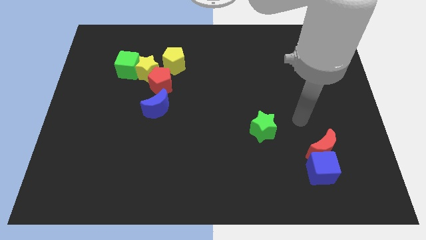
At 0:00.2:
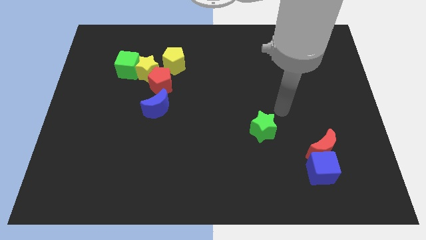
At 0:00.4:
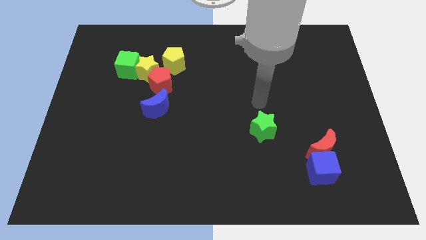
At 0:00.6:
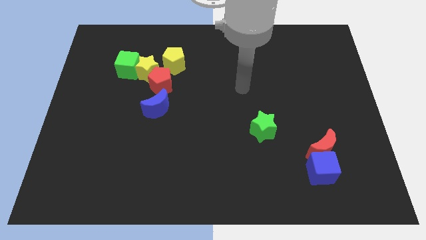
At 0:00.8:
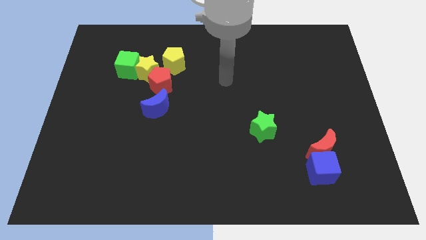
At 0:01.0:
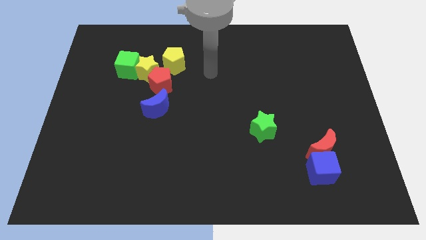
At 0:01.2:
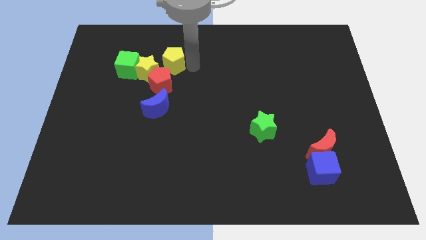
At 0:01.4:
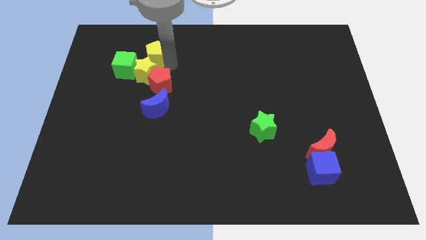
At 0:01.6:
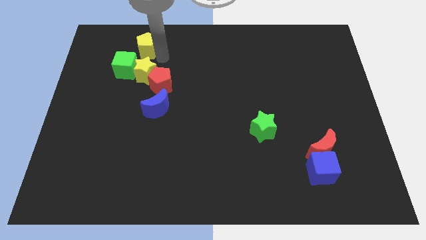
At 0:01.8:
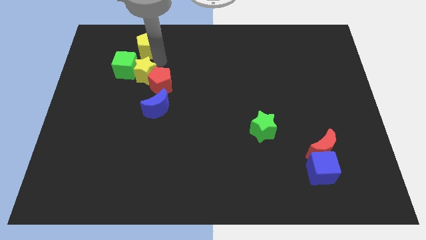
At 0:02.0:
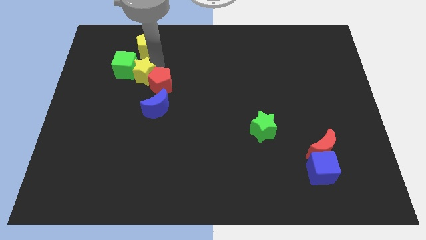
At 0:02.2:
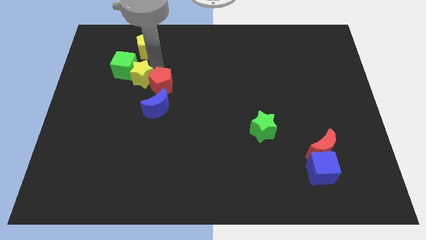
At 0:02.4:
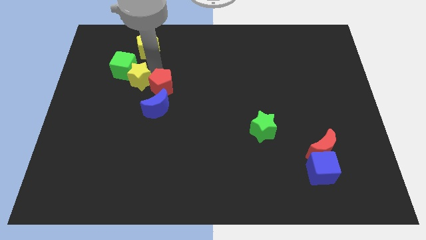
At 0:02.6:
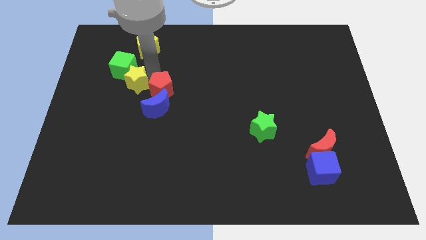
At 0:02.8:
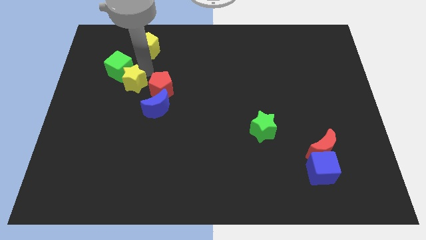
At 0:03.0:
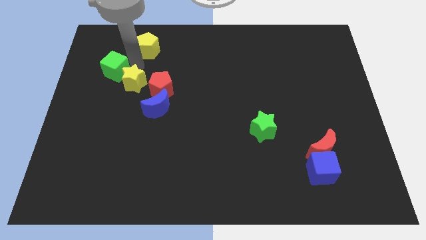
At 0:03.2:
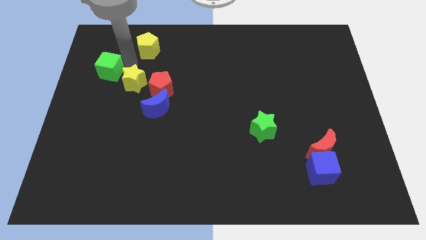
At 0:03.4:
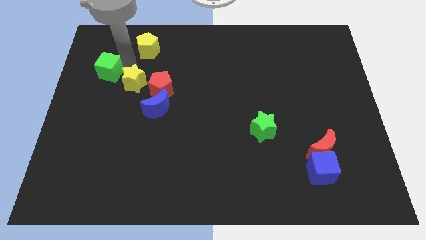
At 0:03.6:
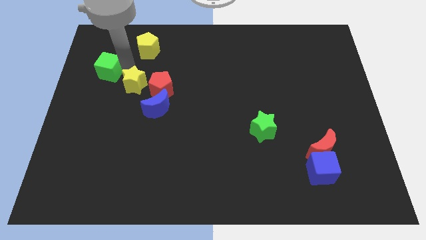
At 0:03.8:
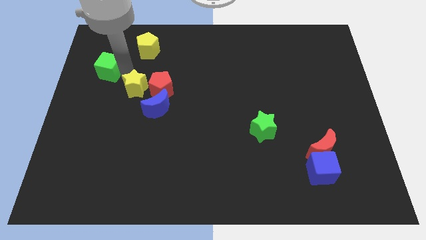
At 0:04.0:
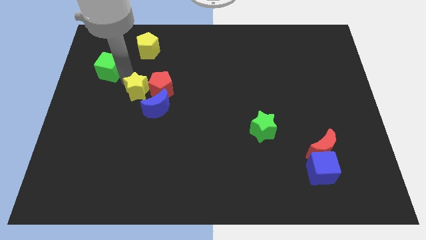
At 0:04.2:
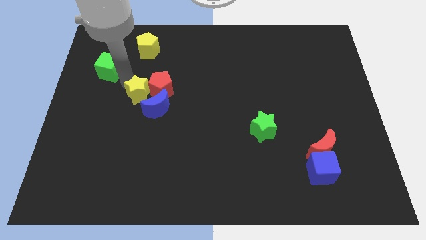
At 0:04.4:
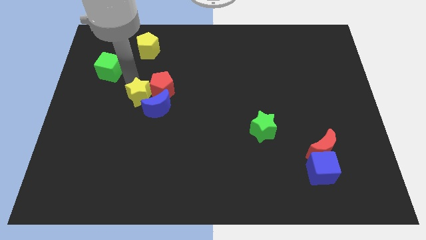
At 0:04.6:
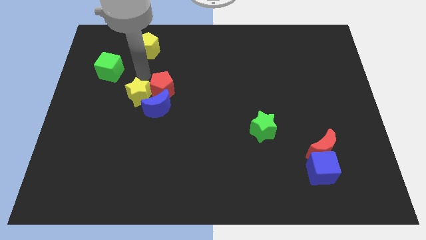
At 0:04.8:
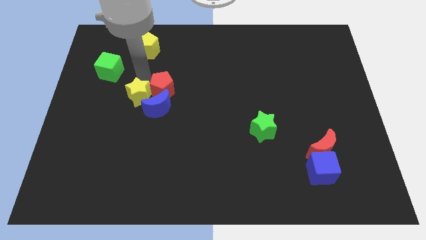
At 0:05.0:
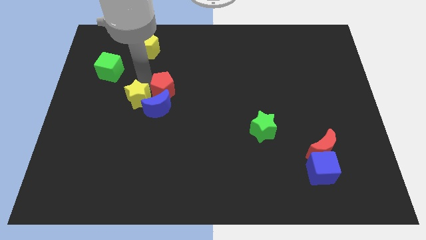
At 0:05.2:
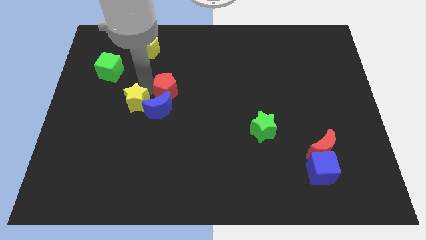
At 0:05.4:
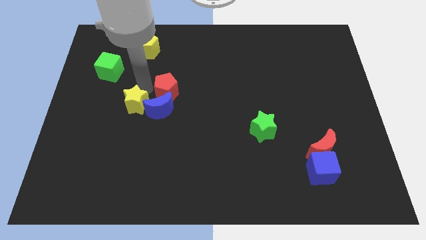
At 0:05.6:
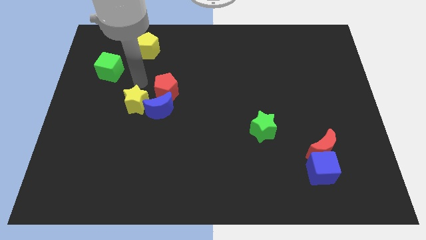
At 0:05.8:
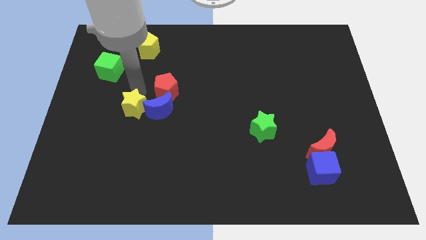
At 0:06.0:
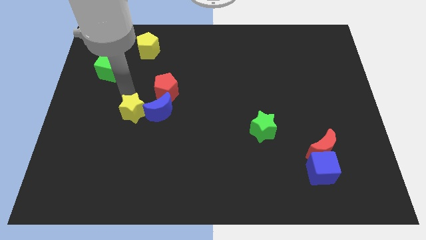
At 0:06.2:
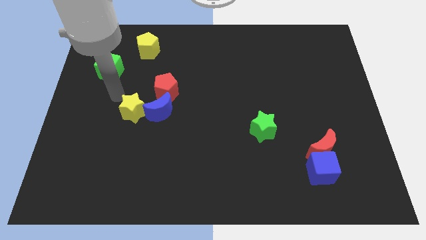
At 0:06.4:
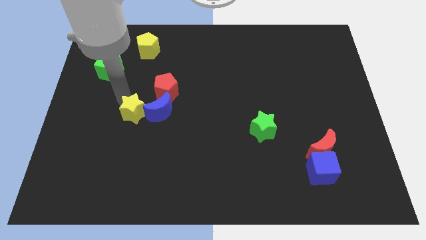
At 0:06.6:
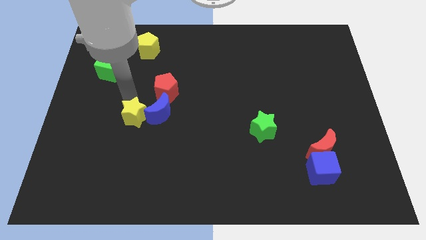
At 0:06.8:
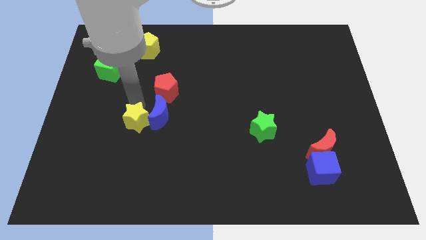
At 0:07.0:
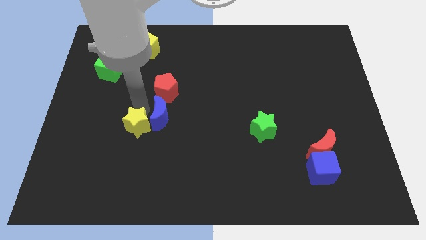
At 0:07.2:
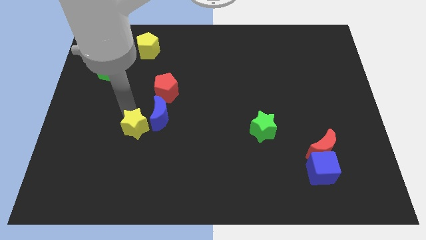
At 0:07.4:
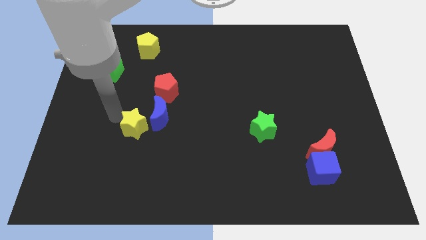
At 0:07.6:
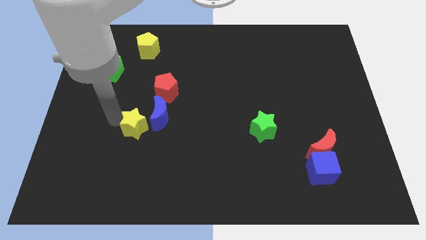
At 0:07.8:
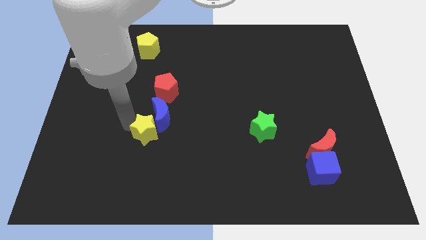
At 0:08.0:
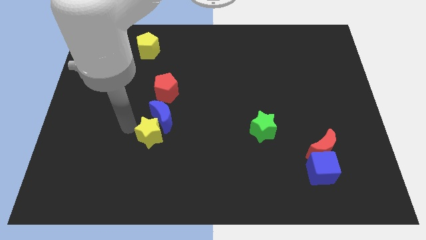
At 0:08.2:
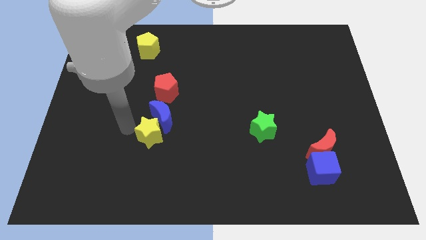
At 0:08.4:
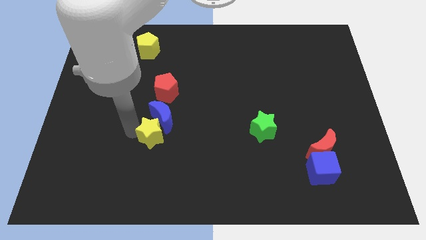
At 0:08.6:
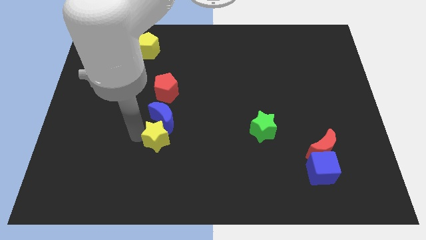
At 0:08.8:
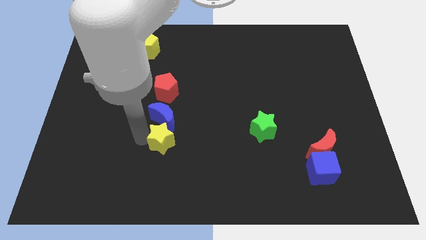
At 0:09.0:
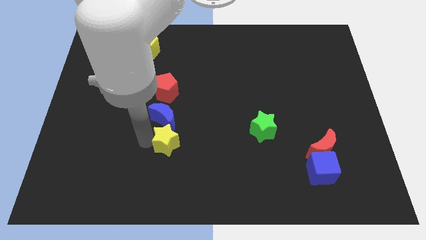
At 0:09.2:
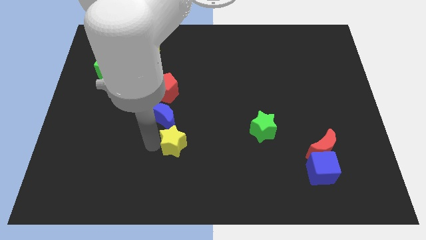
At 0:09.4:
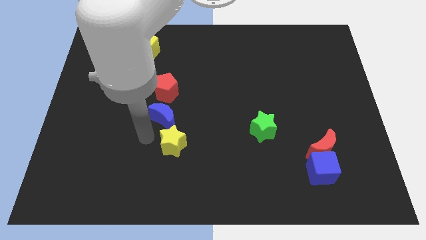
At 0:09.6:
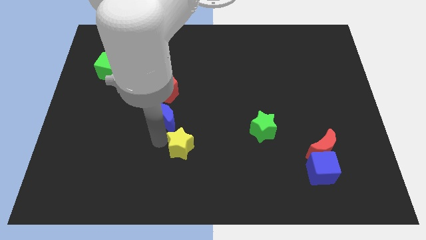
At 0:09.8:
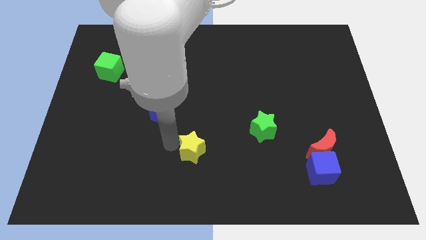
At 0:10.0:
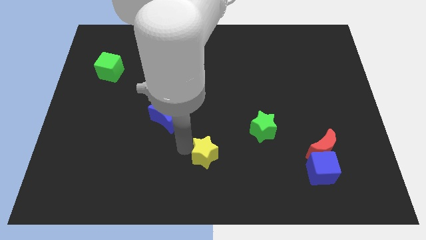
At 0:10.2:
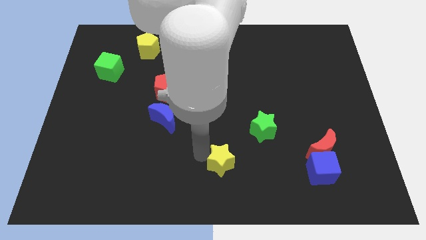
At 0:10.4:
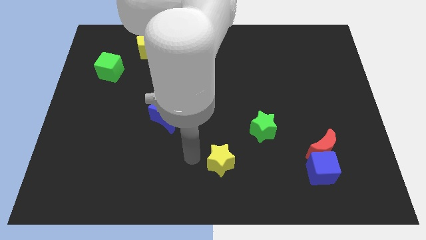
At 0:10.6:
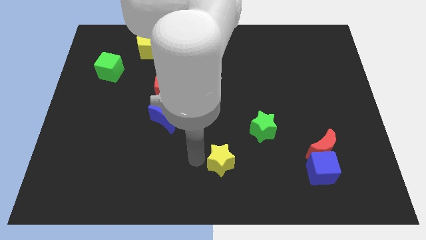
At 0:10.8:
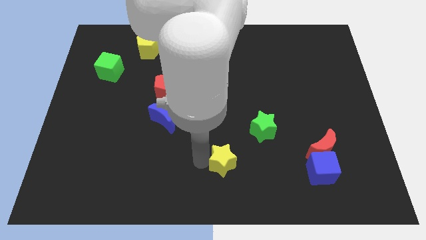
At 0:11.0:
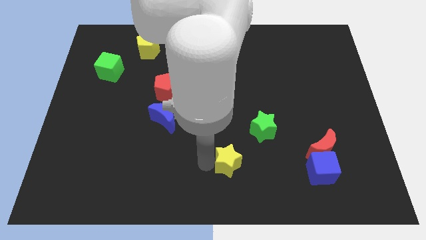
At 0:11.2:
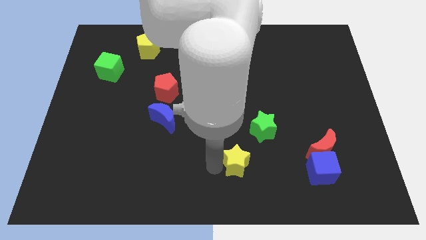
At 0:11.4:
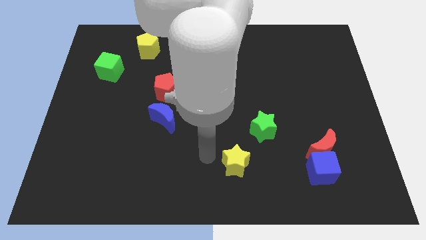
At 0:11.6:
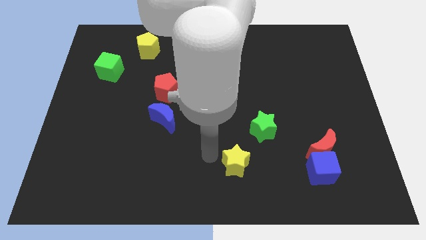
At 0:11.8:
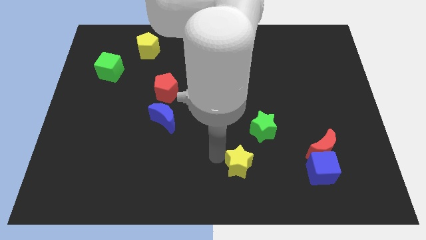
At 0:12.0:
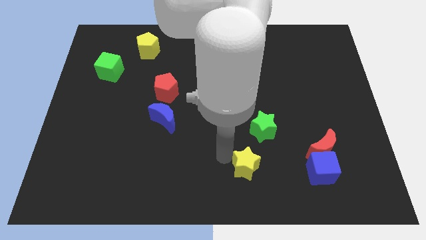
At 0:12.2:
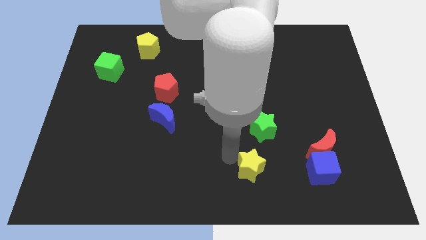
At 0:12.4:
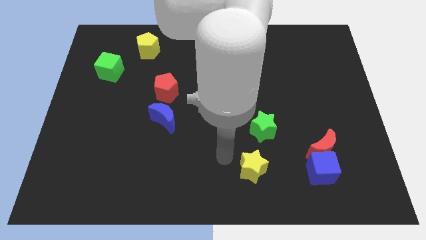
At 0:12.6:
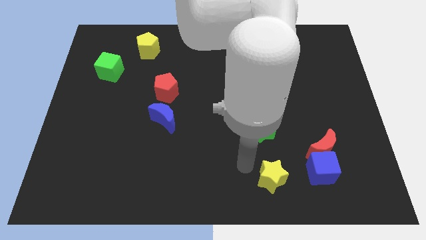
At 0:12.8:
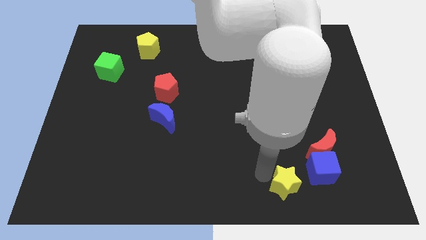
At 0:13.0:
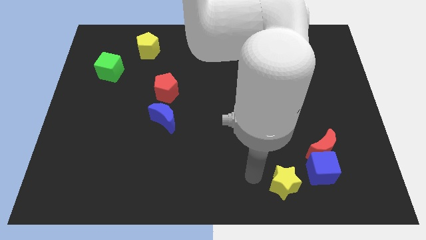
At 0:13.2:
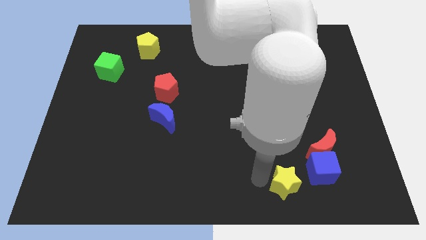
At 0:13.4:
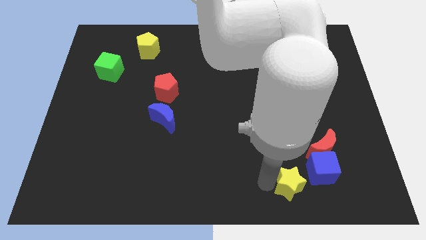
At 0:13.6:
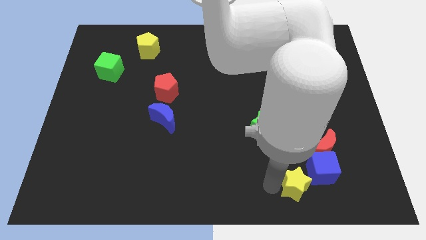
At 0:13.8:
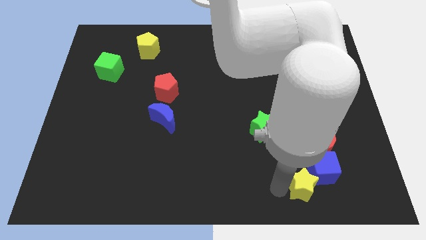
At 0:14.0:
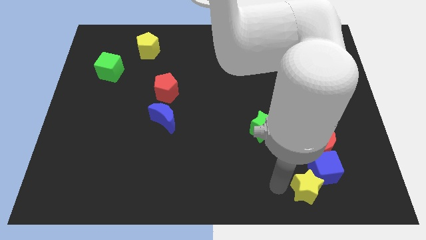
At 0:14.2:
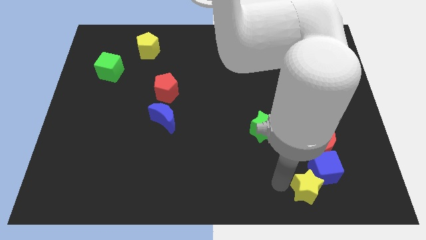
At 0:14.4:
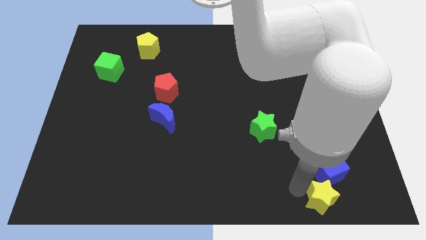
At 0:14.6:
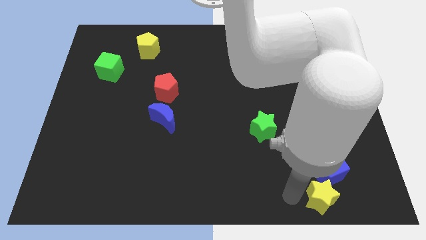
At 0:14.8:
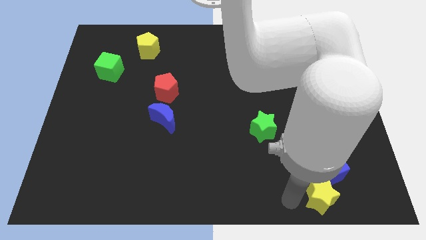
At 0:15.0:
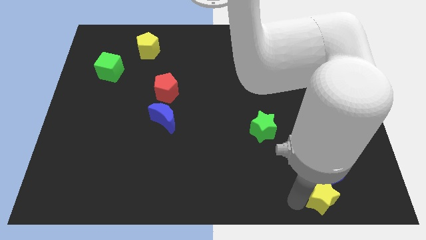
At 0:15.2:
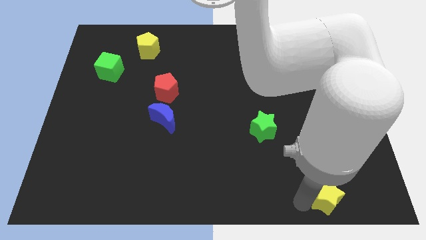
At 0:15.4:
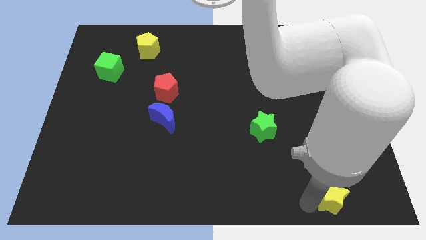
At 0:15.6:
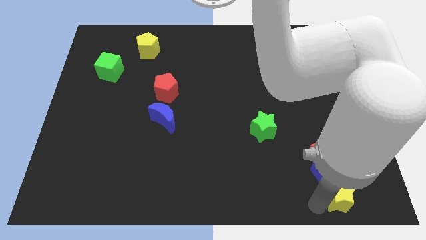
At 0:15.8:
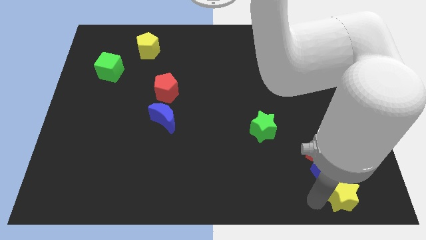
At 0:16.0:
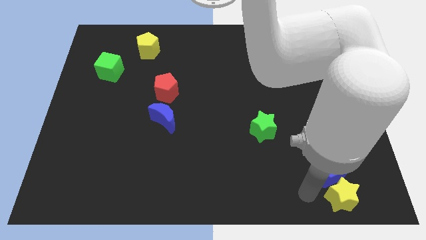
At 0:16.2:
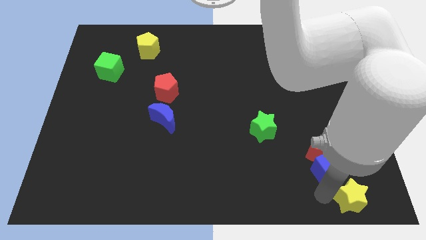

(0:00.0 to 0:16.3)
move the yellow star to the bottom right corner
